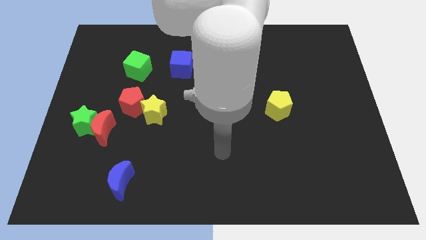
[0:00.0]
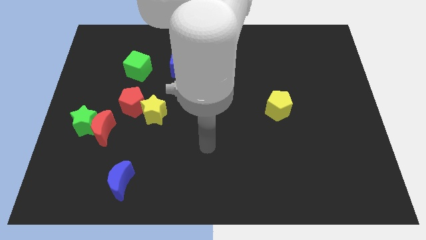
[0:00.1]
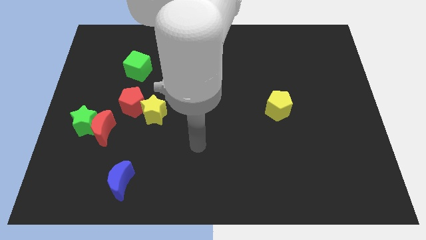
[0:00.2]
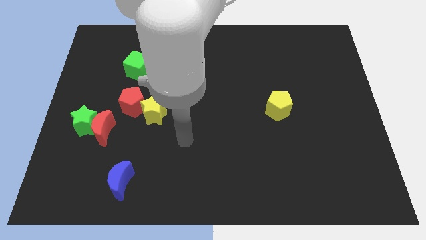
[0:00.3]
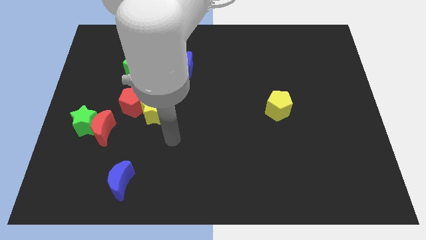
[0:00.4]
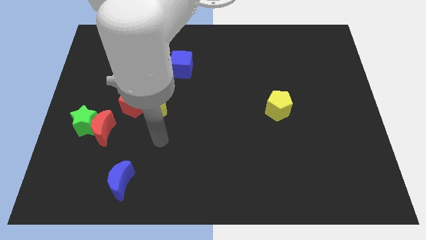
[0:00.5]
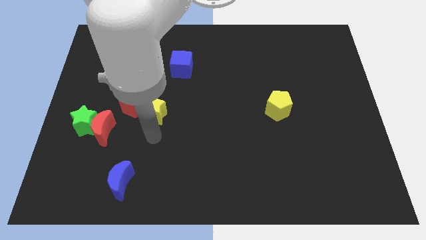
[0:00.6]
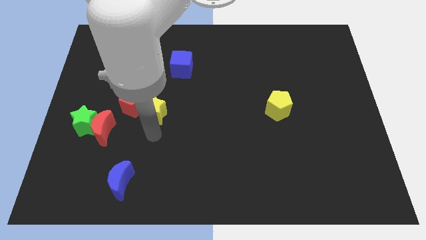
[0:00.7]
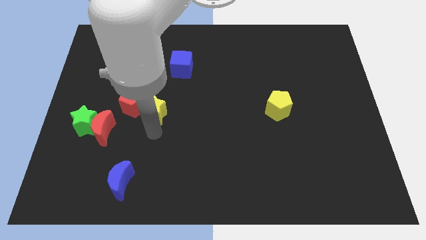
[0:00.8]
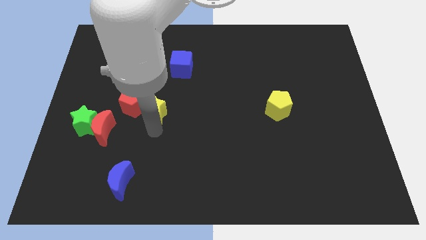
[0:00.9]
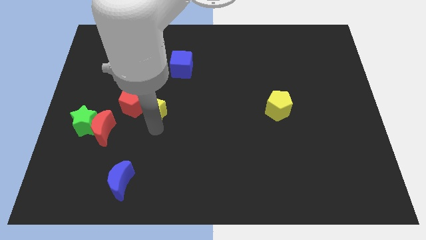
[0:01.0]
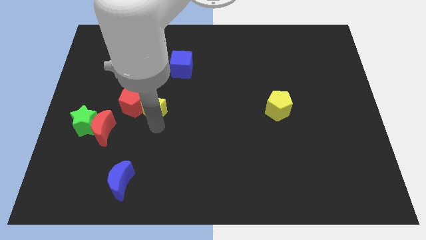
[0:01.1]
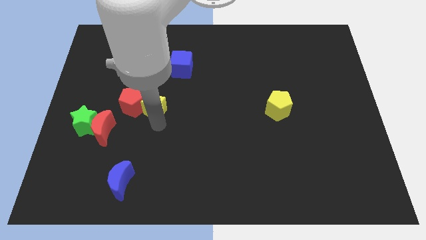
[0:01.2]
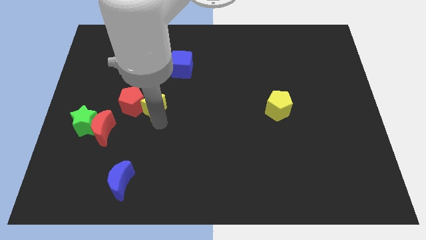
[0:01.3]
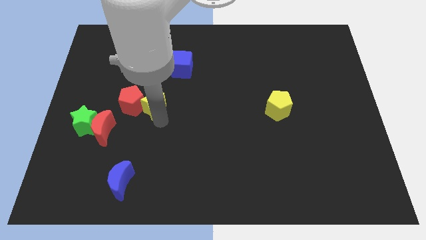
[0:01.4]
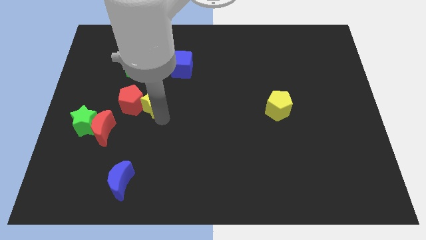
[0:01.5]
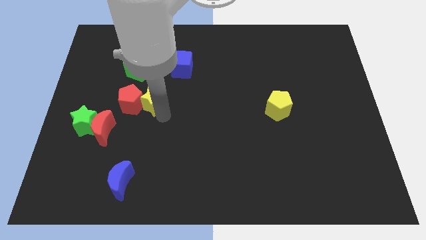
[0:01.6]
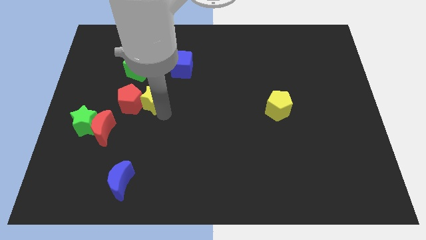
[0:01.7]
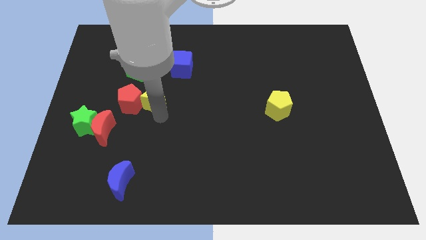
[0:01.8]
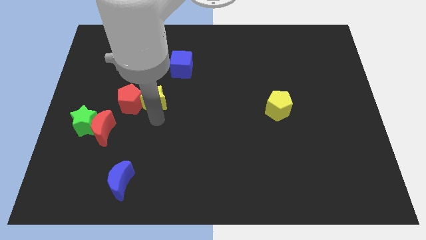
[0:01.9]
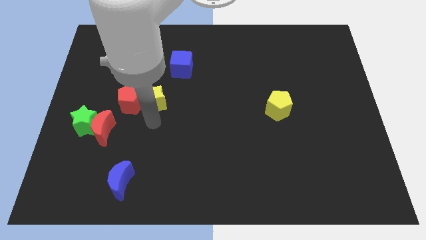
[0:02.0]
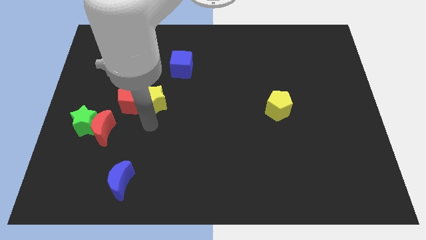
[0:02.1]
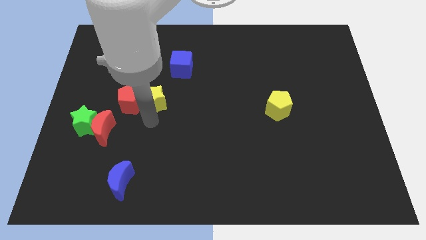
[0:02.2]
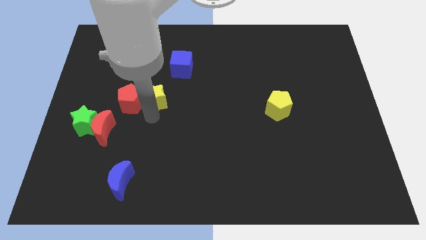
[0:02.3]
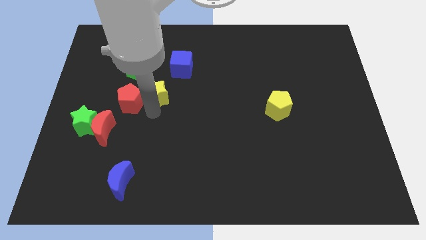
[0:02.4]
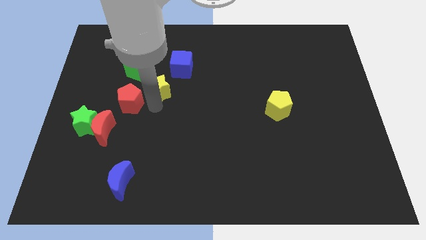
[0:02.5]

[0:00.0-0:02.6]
move the yellow star upwards a little bit

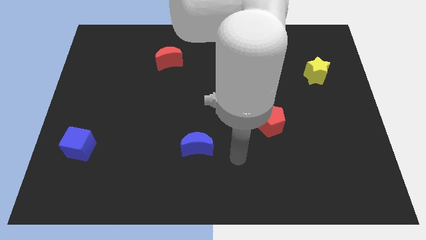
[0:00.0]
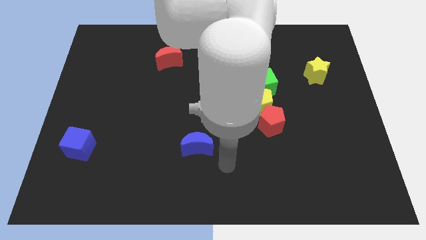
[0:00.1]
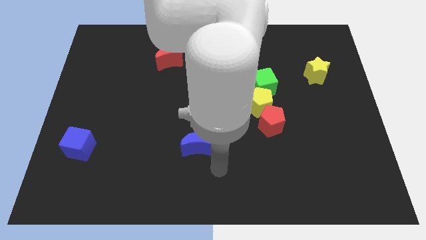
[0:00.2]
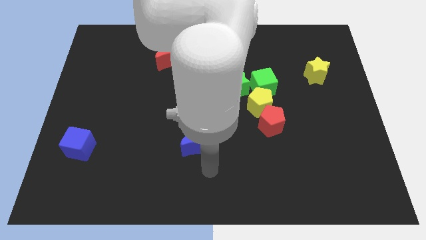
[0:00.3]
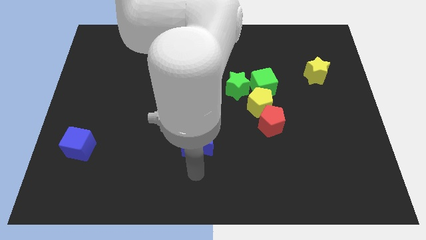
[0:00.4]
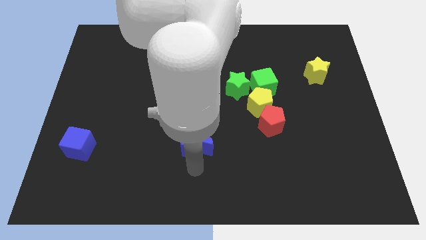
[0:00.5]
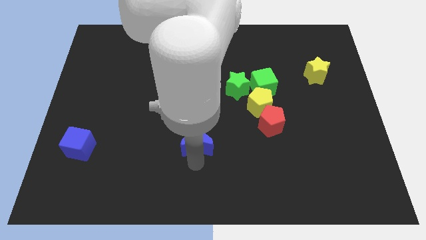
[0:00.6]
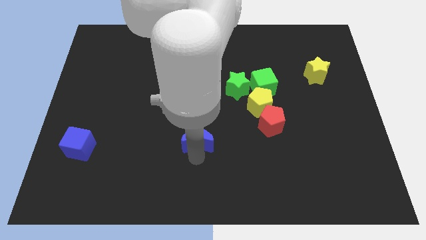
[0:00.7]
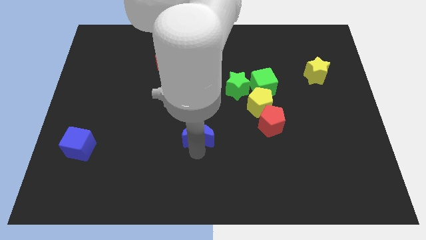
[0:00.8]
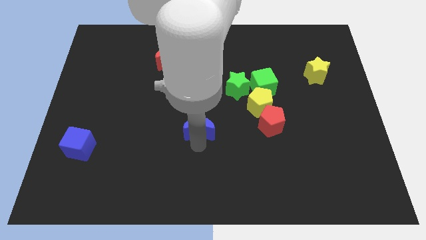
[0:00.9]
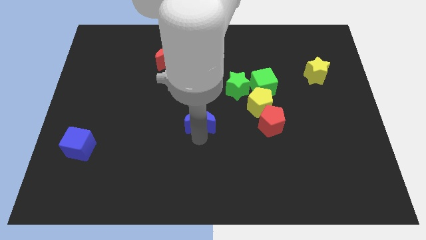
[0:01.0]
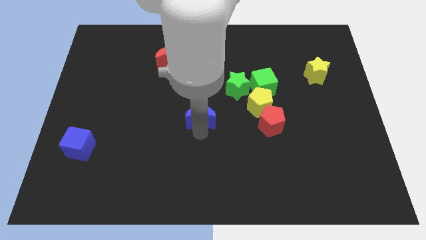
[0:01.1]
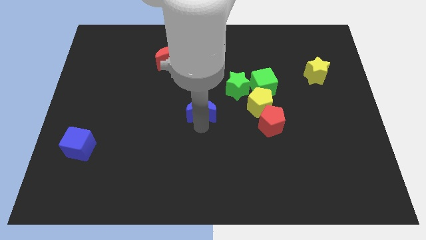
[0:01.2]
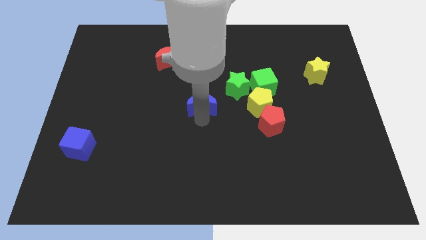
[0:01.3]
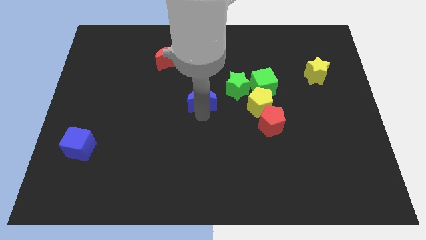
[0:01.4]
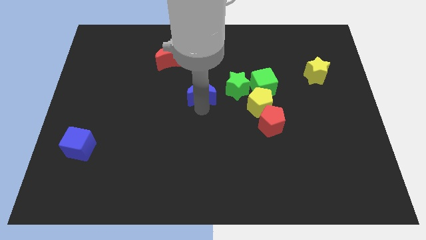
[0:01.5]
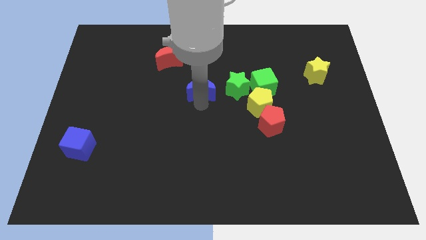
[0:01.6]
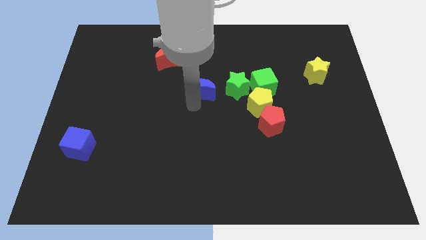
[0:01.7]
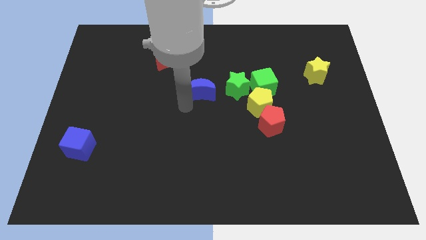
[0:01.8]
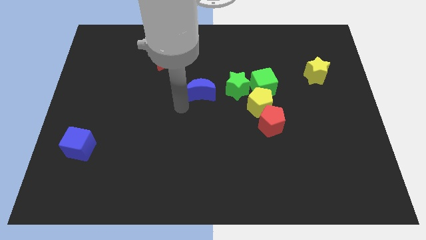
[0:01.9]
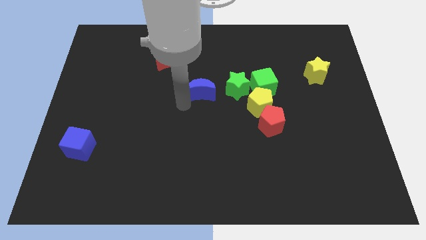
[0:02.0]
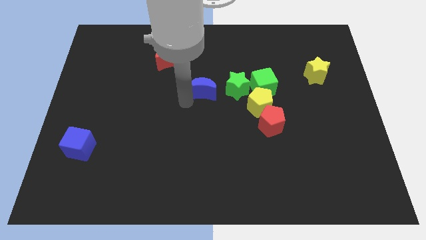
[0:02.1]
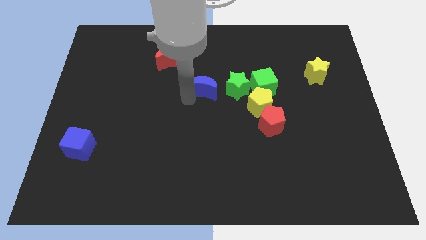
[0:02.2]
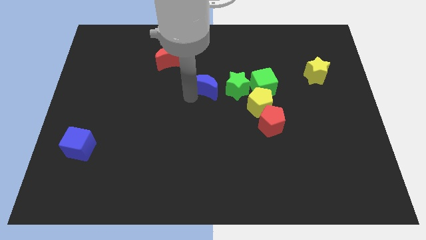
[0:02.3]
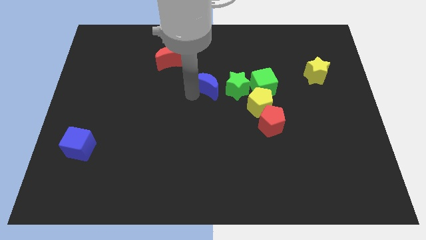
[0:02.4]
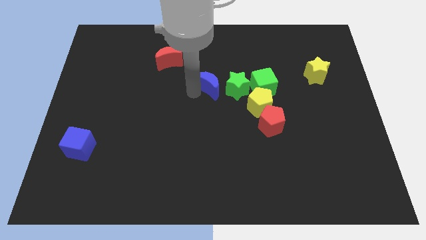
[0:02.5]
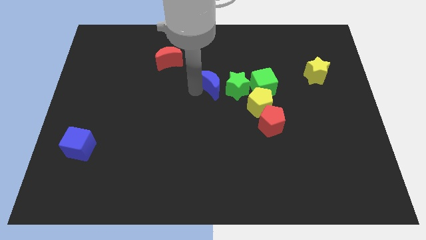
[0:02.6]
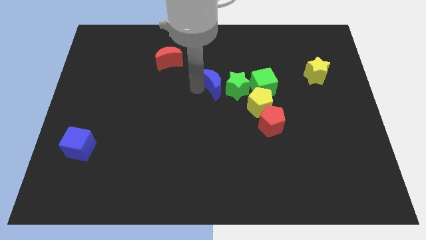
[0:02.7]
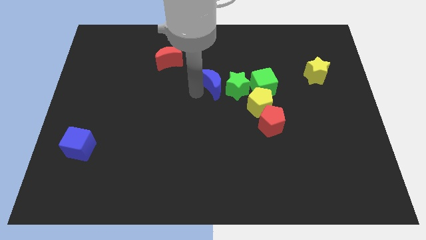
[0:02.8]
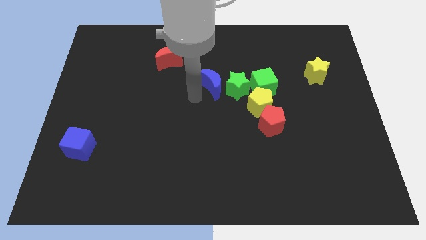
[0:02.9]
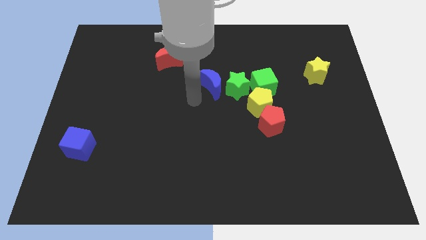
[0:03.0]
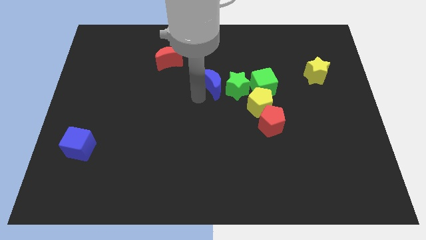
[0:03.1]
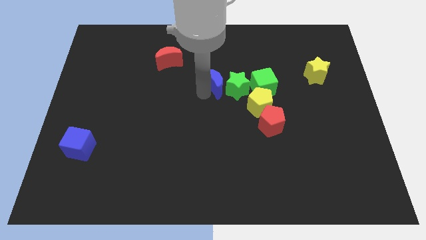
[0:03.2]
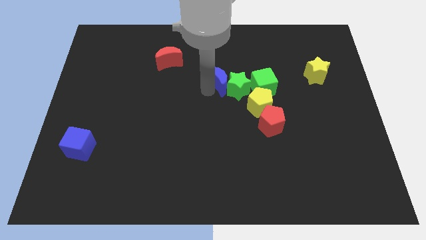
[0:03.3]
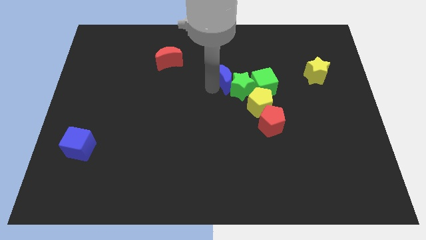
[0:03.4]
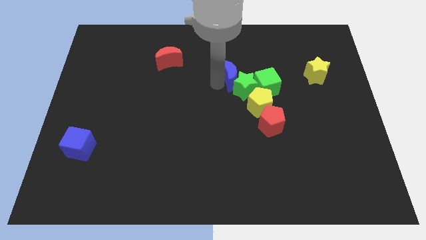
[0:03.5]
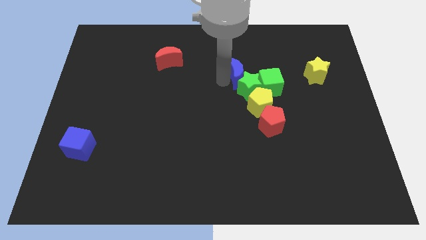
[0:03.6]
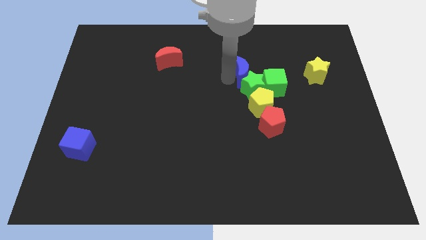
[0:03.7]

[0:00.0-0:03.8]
move the blue moon up and right

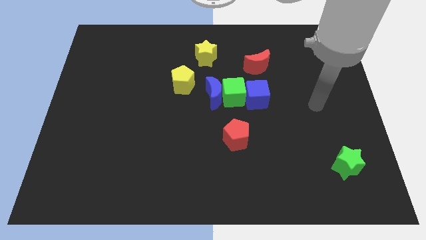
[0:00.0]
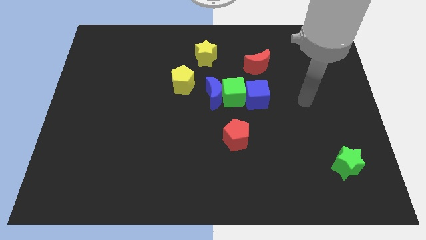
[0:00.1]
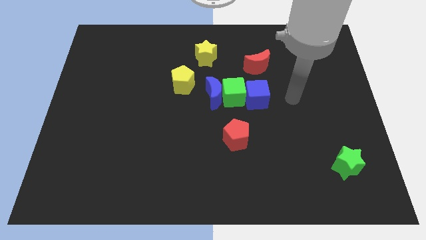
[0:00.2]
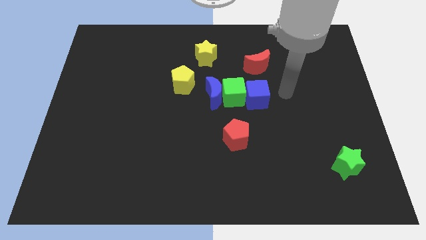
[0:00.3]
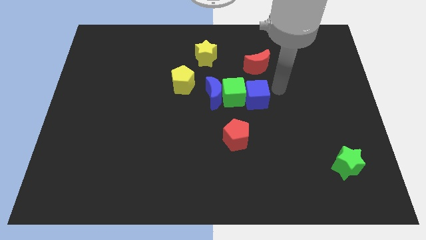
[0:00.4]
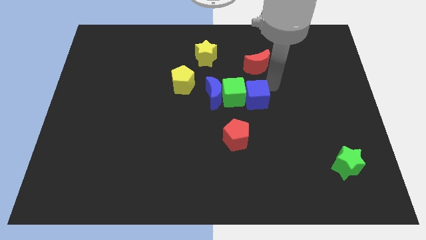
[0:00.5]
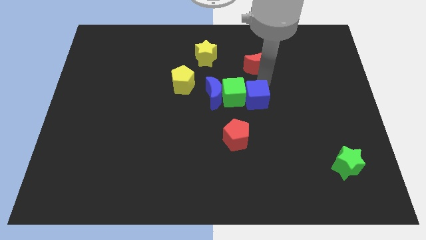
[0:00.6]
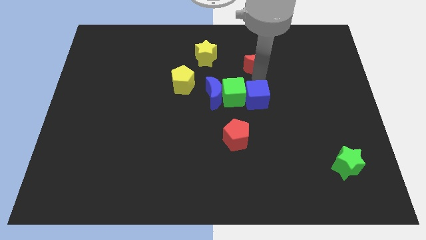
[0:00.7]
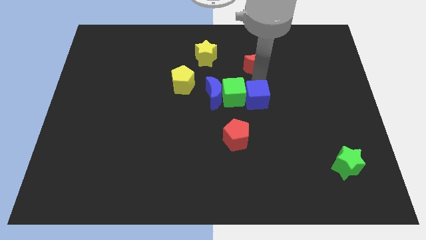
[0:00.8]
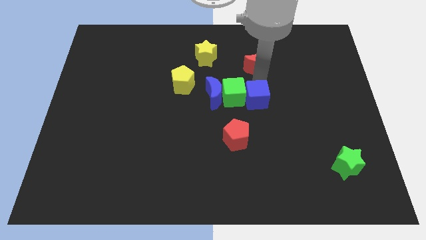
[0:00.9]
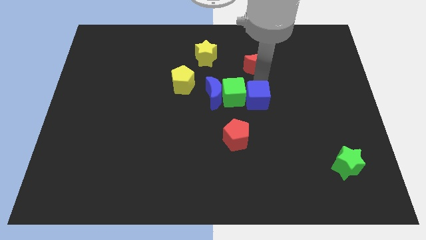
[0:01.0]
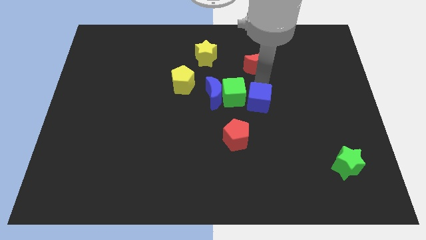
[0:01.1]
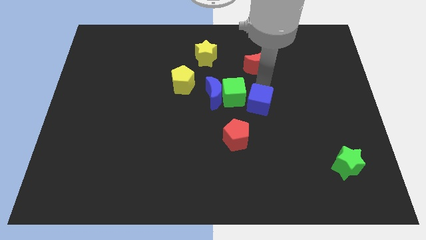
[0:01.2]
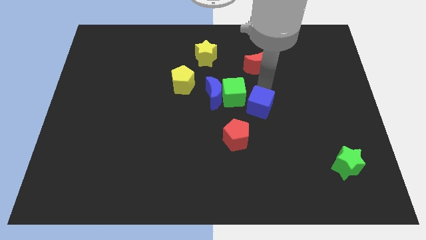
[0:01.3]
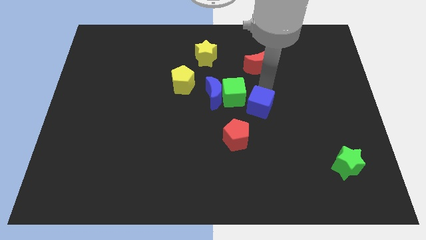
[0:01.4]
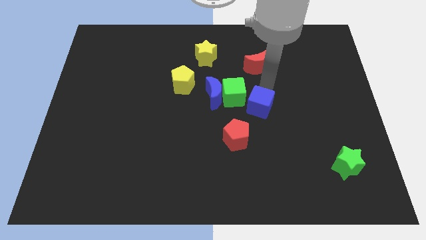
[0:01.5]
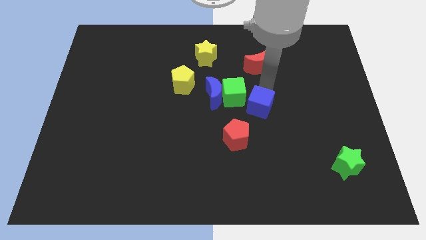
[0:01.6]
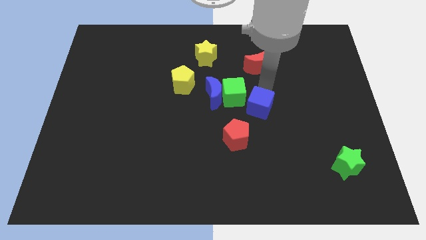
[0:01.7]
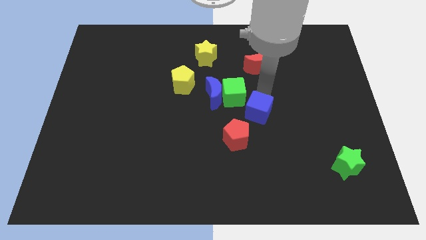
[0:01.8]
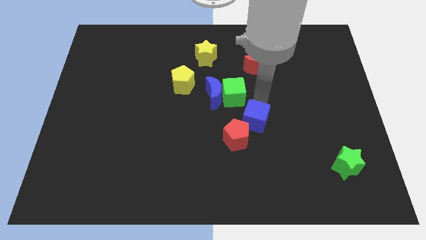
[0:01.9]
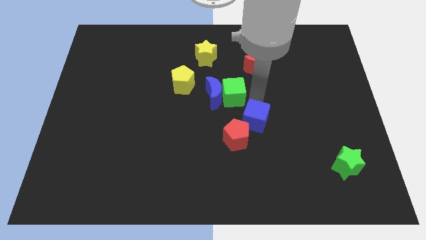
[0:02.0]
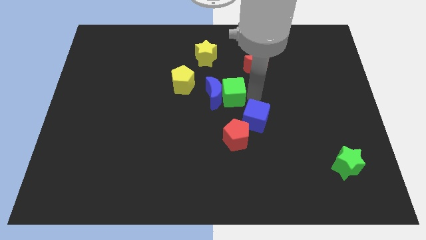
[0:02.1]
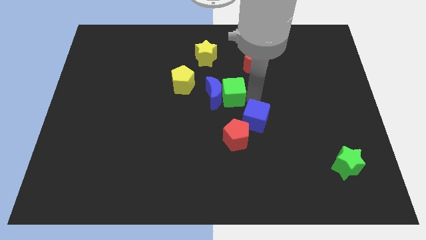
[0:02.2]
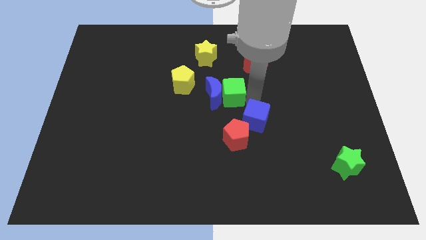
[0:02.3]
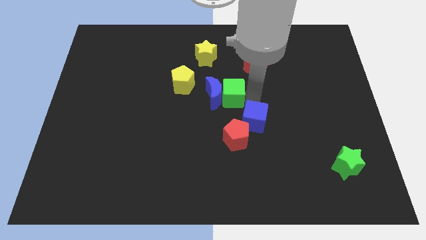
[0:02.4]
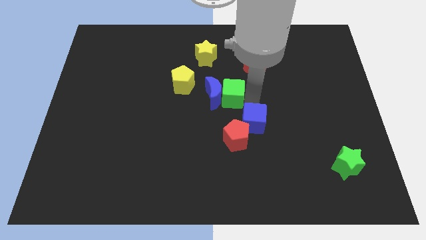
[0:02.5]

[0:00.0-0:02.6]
slide the blue cube downwards slightly
